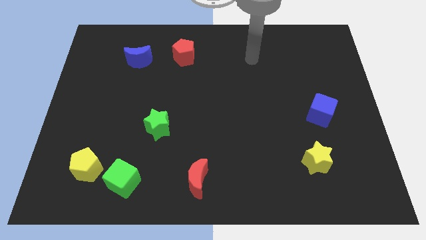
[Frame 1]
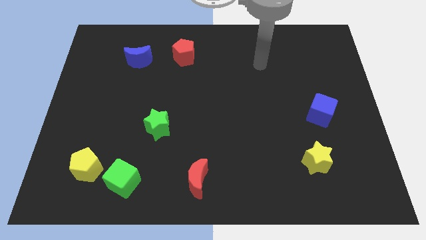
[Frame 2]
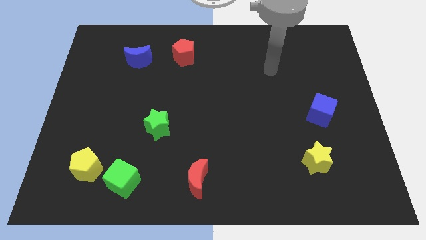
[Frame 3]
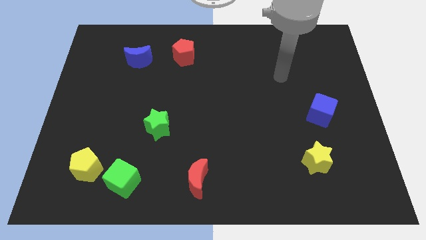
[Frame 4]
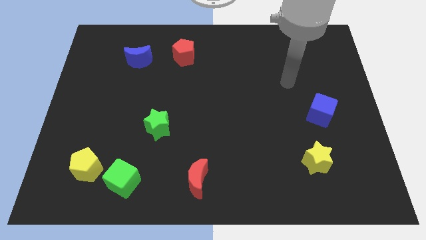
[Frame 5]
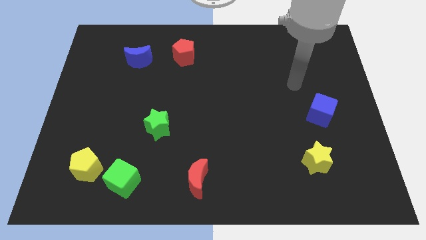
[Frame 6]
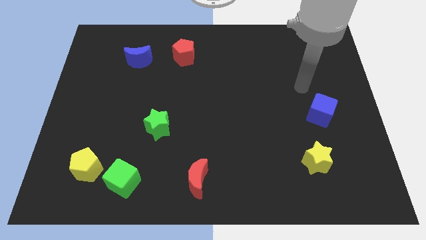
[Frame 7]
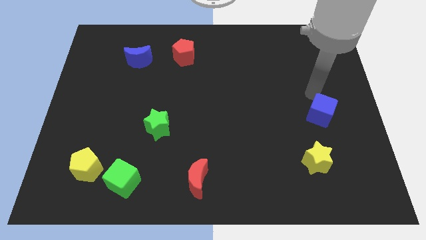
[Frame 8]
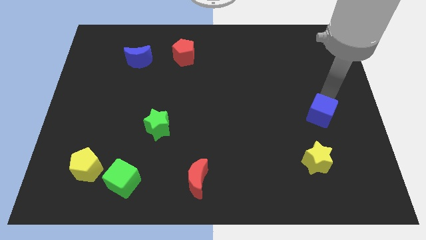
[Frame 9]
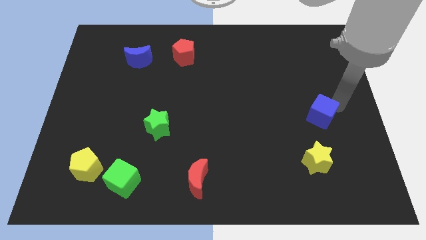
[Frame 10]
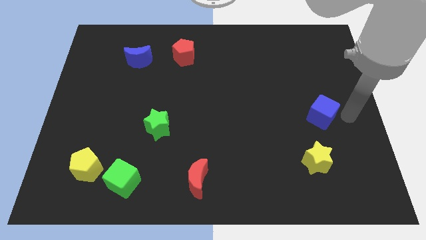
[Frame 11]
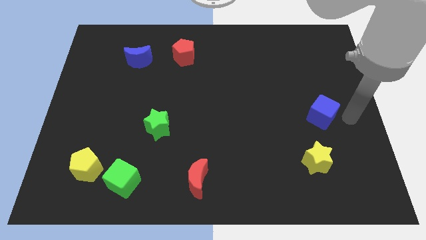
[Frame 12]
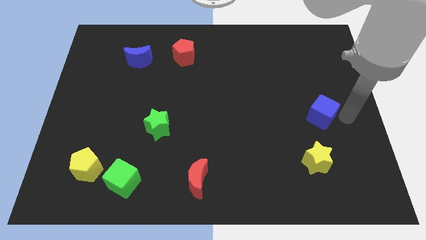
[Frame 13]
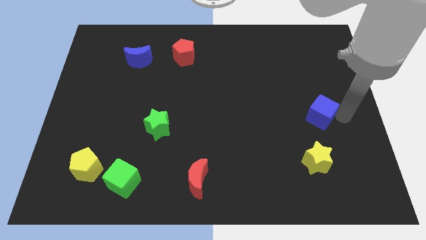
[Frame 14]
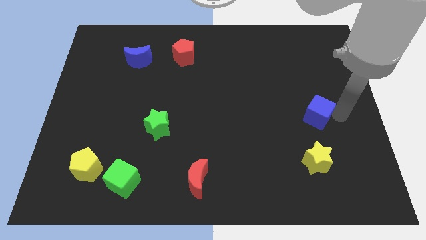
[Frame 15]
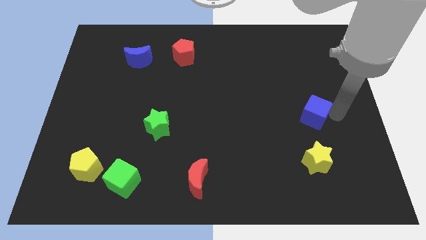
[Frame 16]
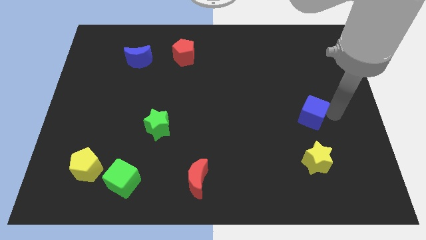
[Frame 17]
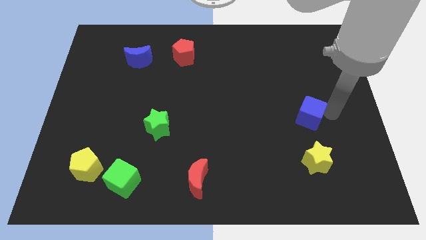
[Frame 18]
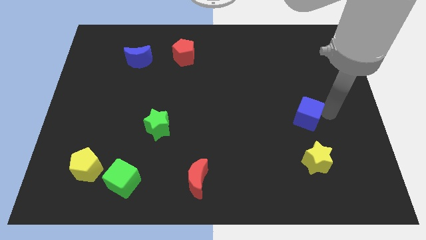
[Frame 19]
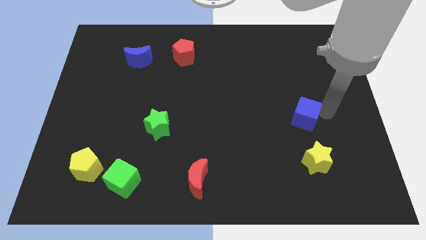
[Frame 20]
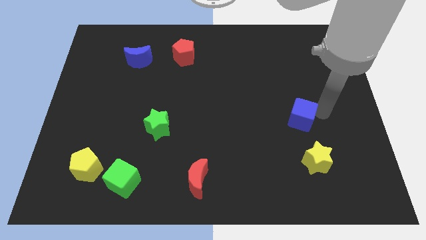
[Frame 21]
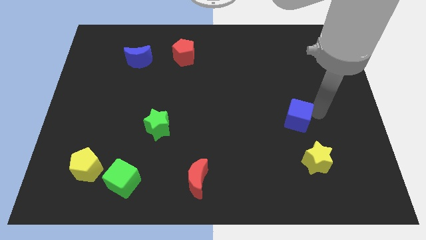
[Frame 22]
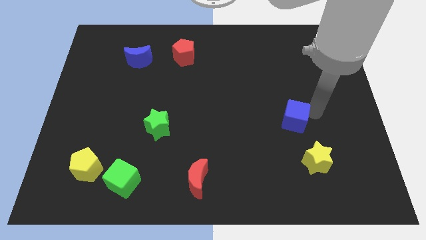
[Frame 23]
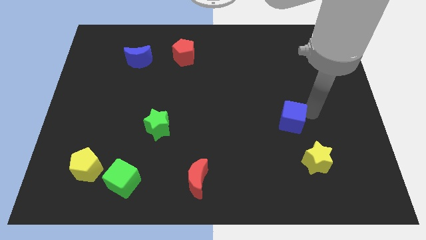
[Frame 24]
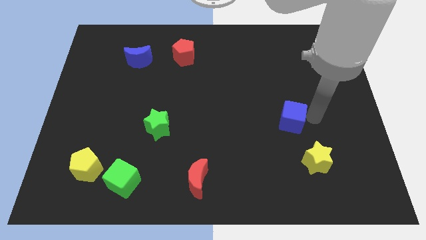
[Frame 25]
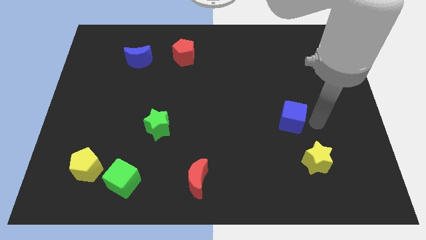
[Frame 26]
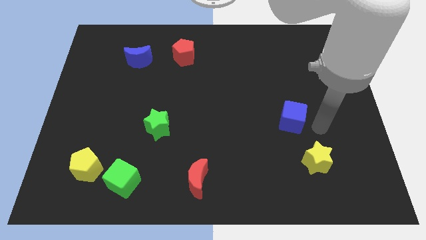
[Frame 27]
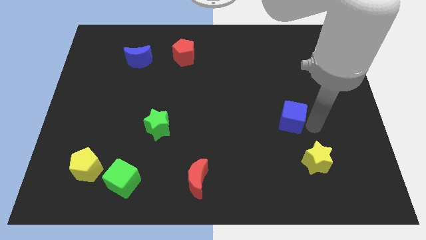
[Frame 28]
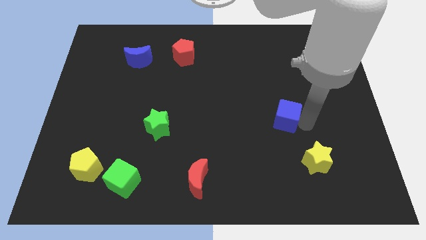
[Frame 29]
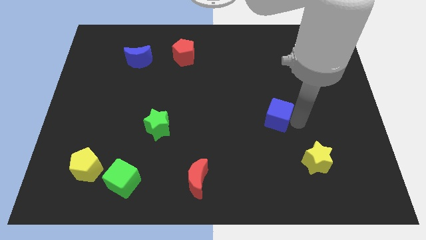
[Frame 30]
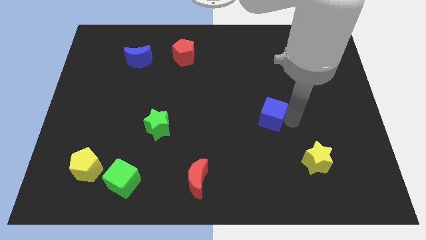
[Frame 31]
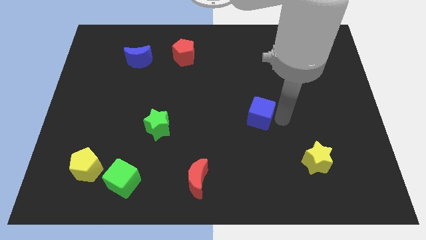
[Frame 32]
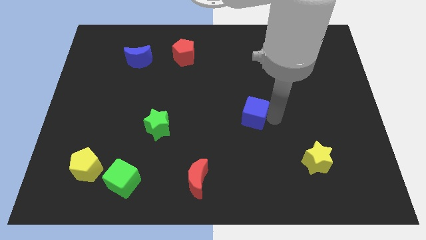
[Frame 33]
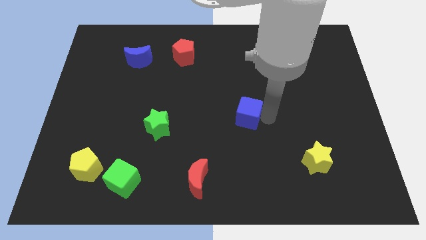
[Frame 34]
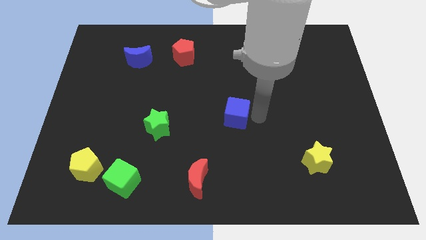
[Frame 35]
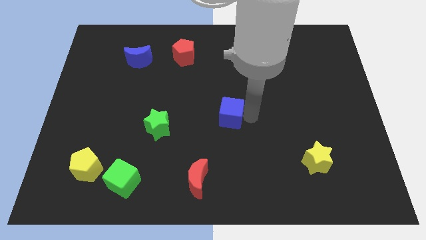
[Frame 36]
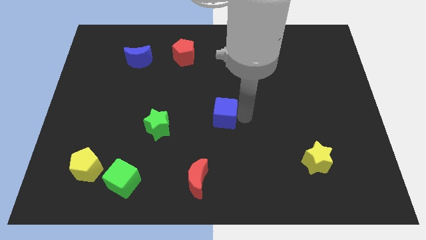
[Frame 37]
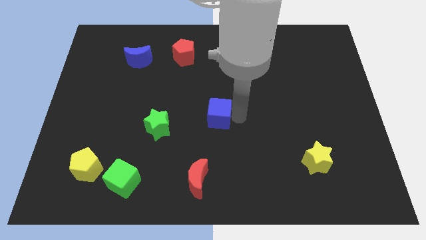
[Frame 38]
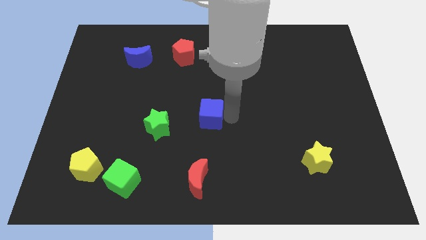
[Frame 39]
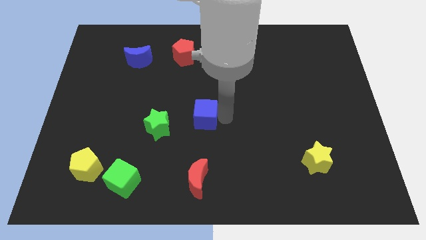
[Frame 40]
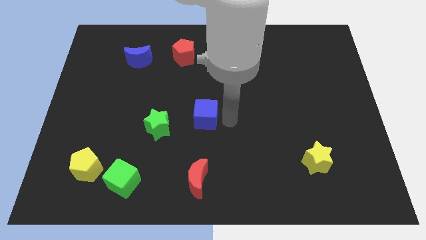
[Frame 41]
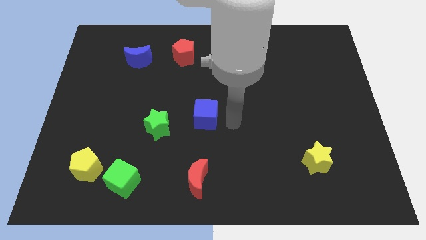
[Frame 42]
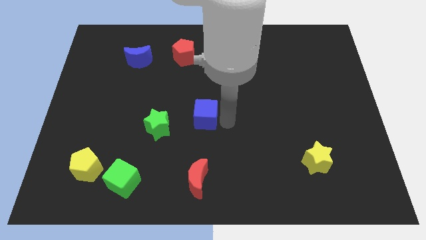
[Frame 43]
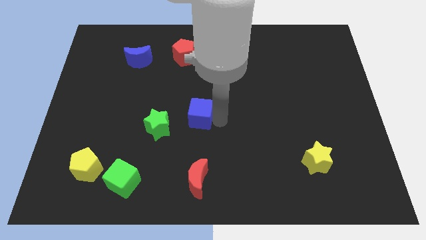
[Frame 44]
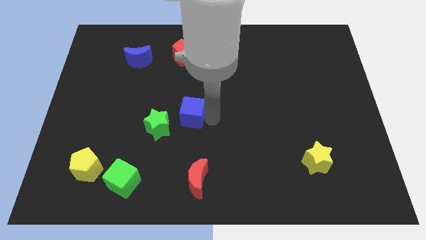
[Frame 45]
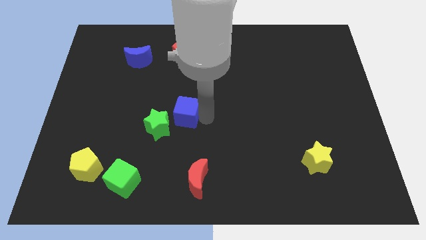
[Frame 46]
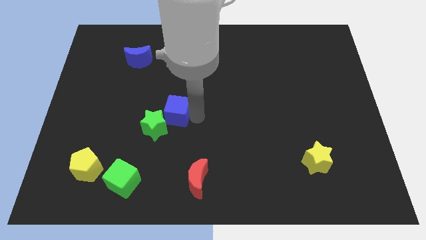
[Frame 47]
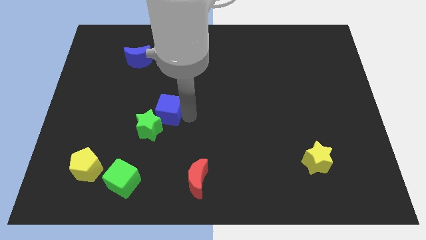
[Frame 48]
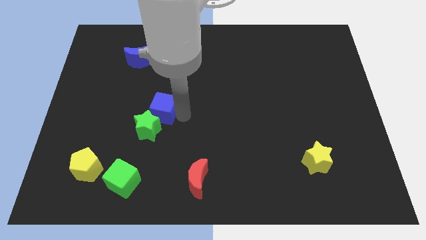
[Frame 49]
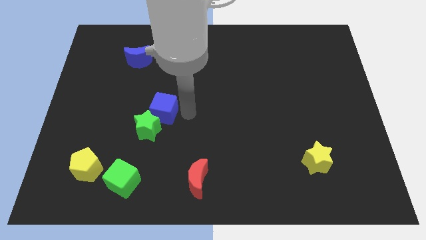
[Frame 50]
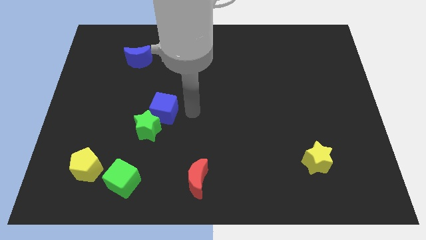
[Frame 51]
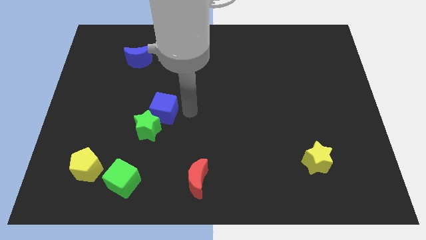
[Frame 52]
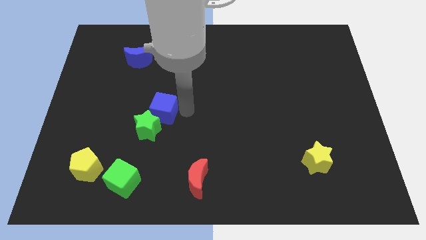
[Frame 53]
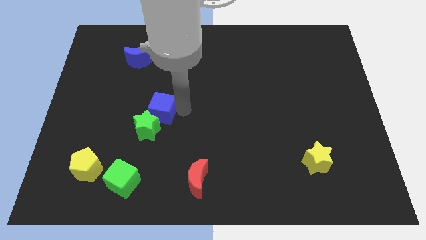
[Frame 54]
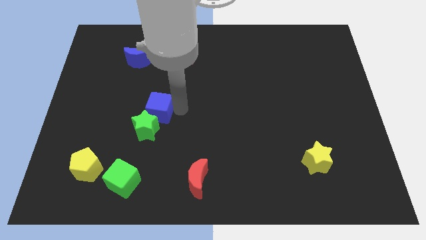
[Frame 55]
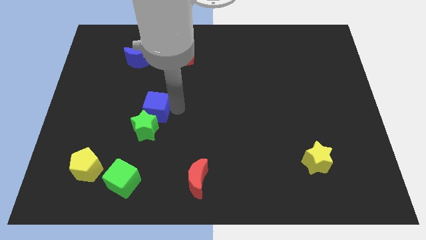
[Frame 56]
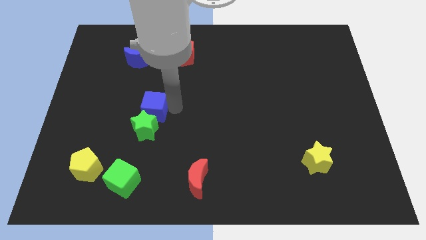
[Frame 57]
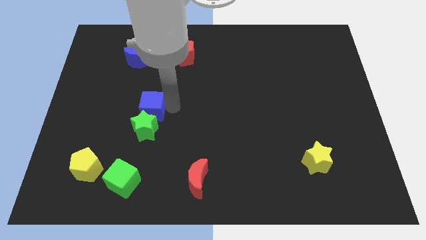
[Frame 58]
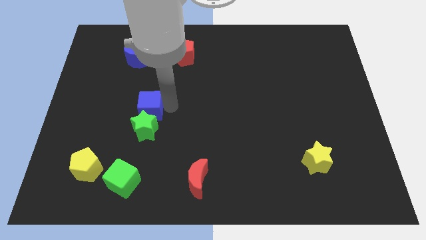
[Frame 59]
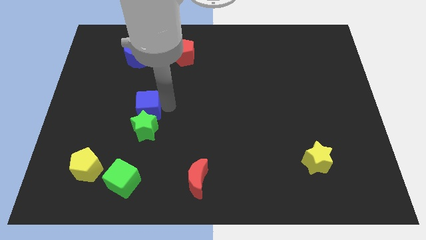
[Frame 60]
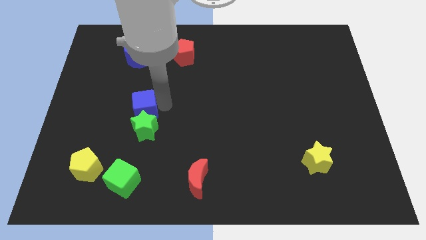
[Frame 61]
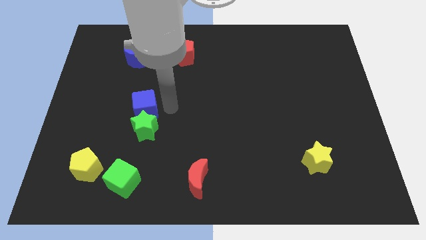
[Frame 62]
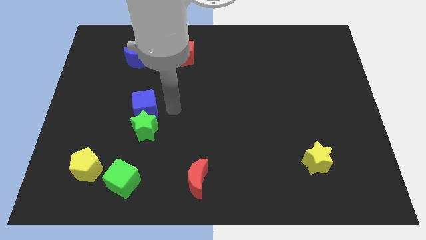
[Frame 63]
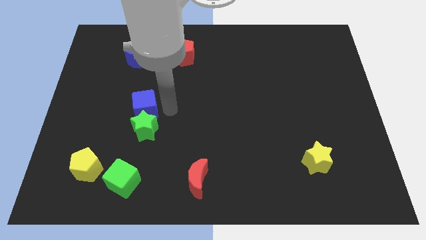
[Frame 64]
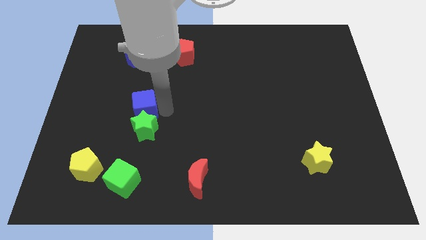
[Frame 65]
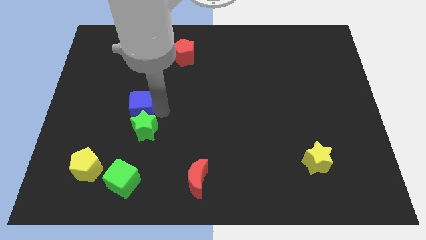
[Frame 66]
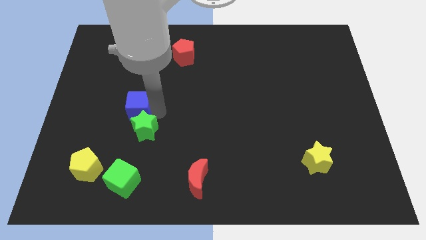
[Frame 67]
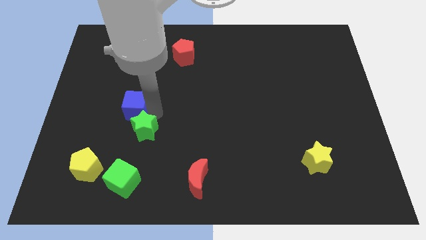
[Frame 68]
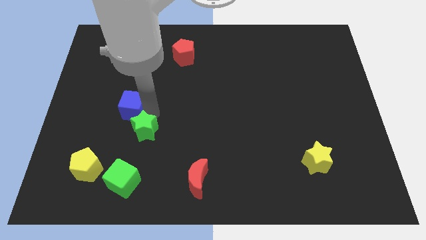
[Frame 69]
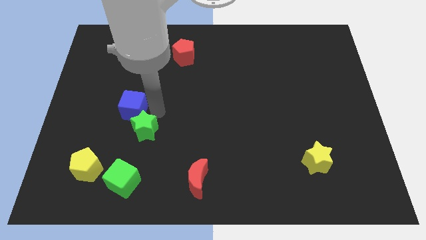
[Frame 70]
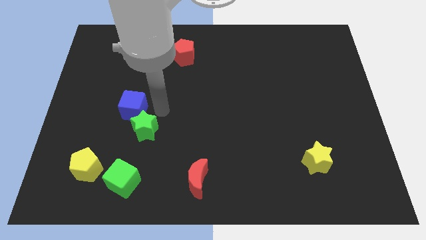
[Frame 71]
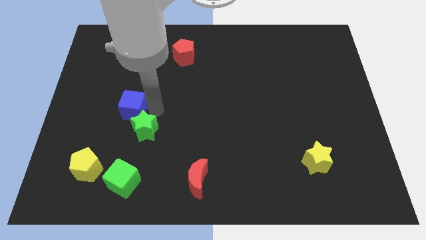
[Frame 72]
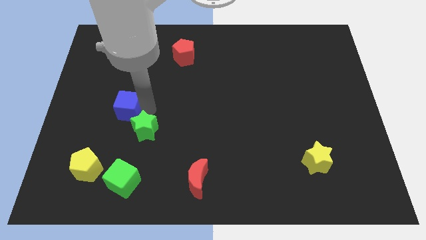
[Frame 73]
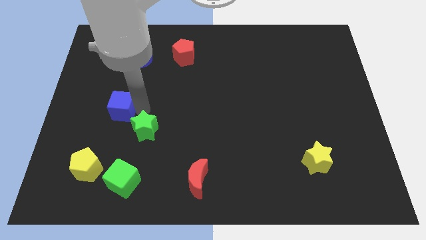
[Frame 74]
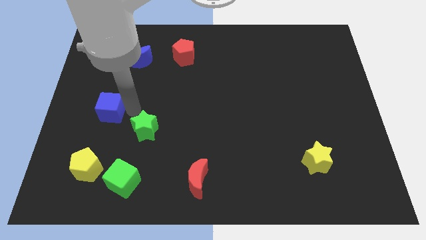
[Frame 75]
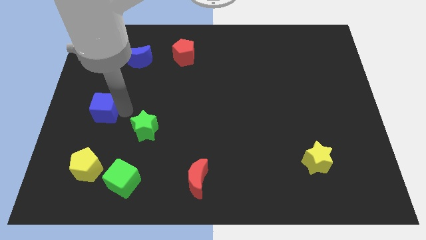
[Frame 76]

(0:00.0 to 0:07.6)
put the blue cube to the left side of the board
